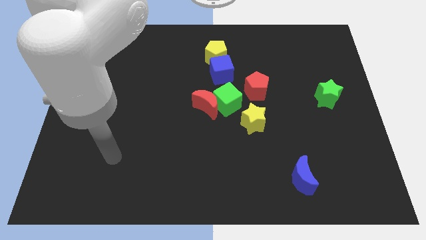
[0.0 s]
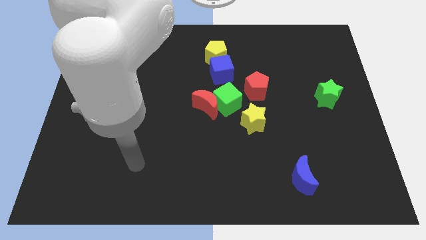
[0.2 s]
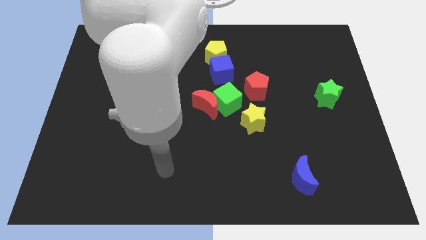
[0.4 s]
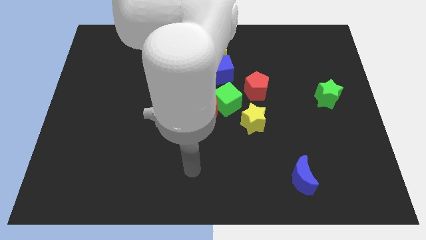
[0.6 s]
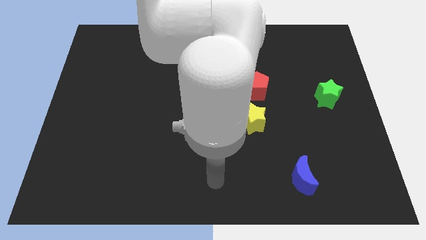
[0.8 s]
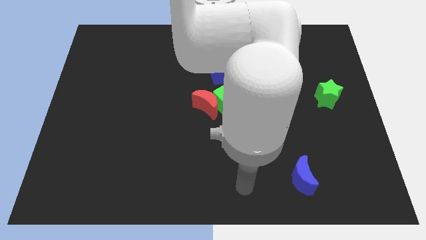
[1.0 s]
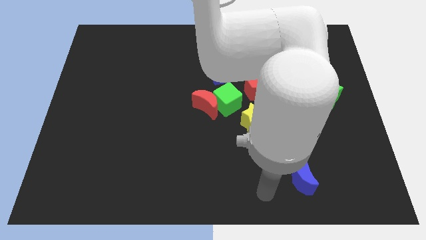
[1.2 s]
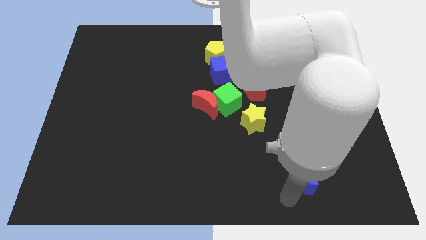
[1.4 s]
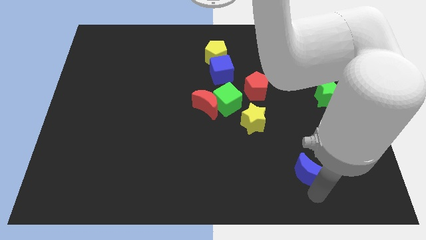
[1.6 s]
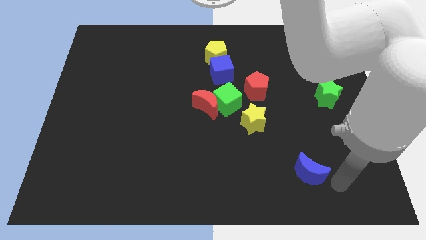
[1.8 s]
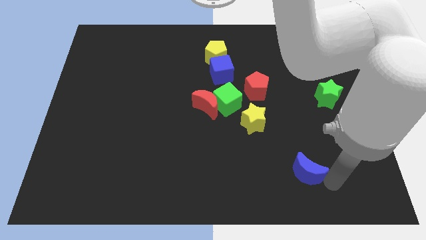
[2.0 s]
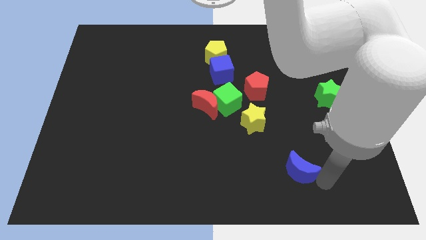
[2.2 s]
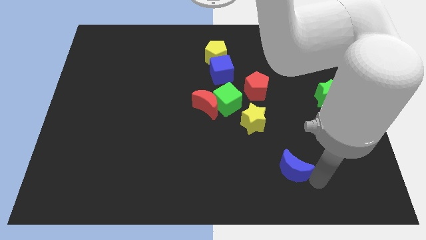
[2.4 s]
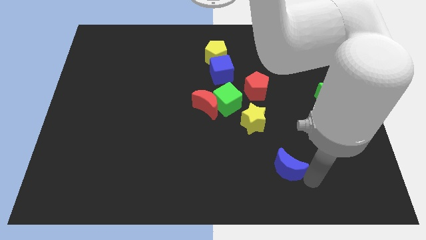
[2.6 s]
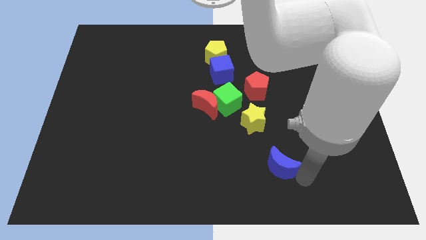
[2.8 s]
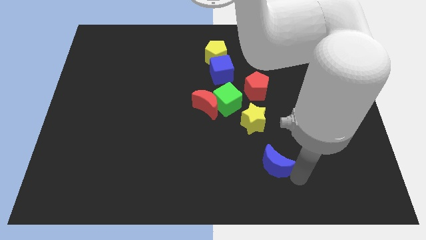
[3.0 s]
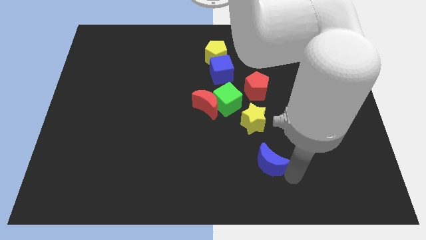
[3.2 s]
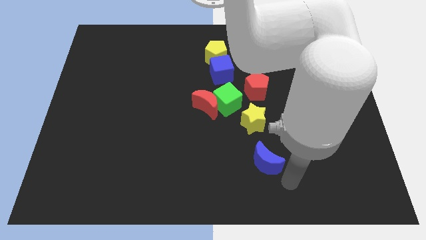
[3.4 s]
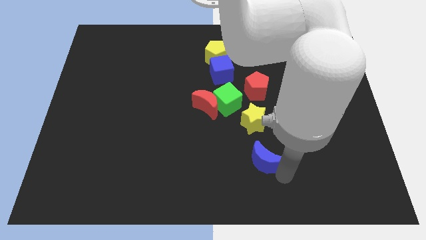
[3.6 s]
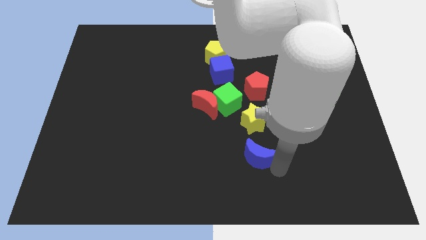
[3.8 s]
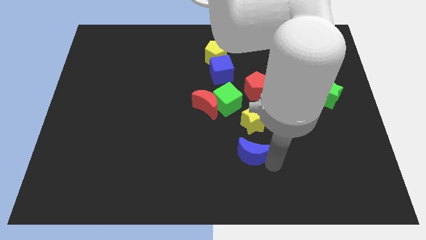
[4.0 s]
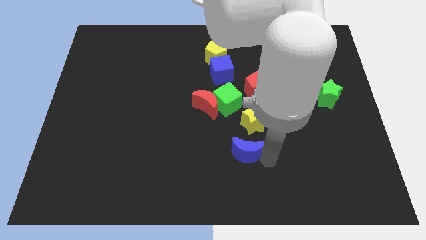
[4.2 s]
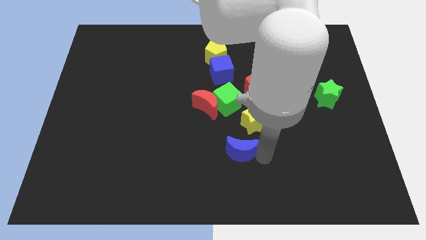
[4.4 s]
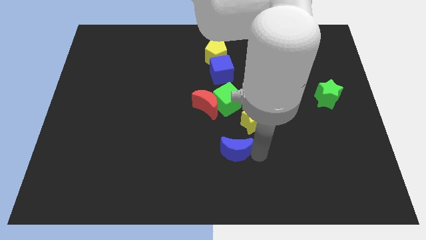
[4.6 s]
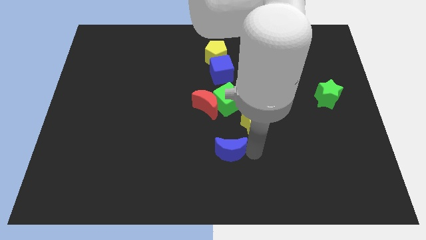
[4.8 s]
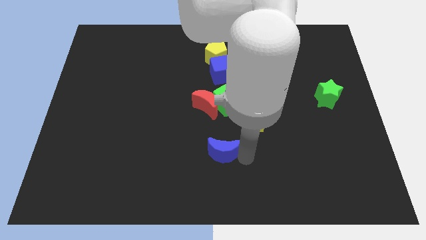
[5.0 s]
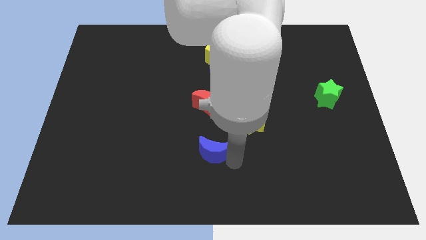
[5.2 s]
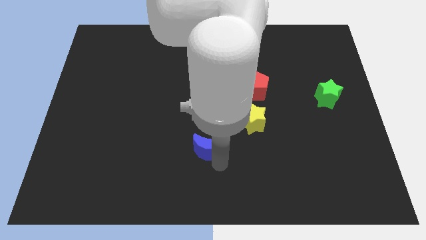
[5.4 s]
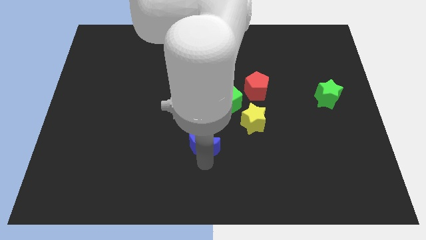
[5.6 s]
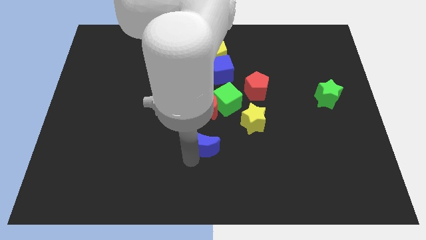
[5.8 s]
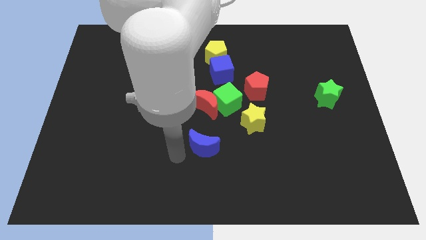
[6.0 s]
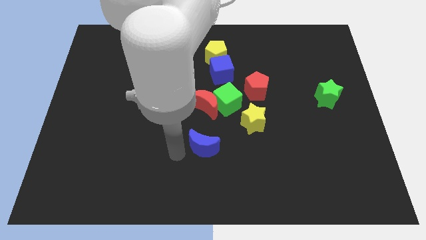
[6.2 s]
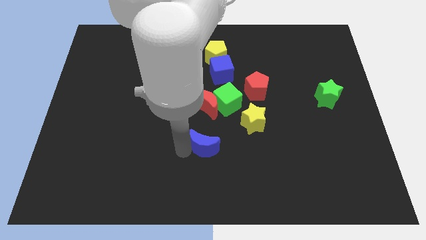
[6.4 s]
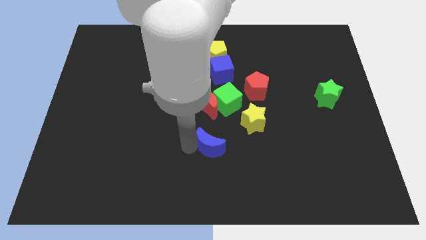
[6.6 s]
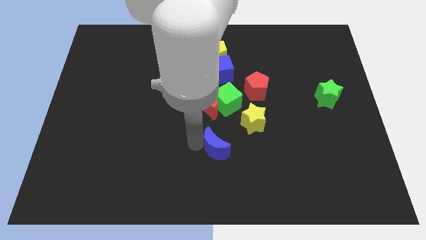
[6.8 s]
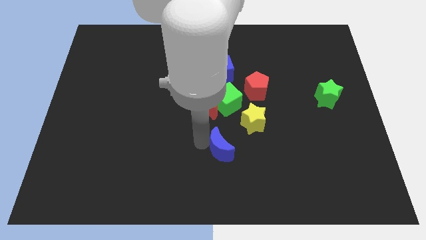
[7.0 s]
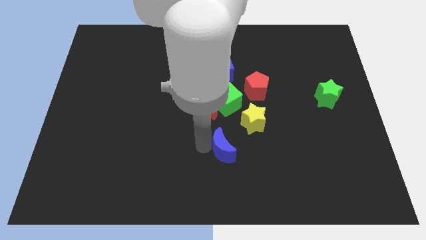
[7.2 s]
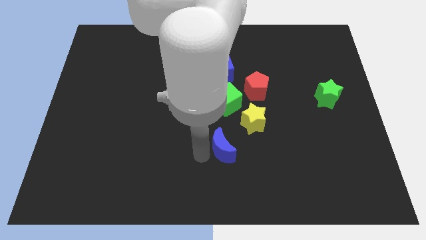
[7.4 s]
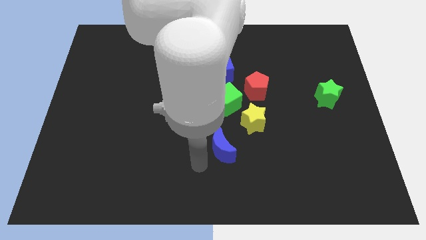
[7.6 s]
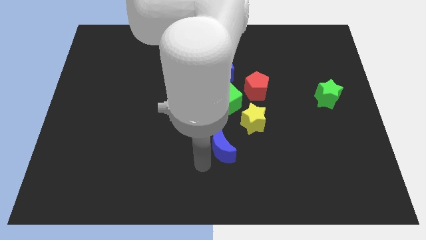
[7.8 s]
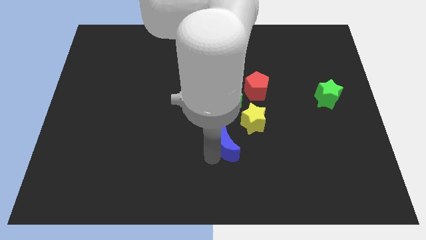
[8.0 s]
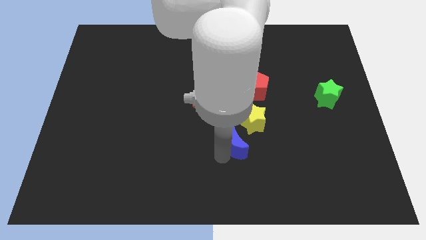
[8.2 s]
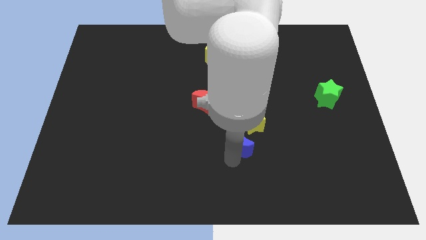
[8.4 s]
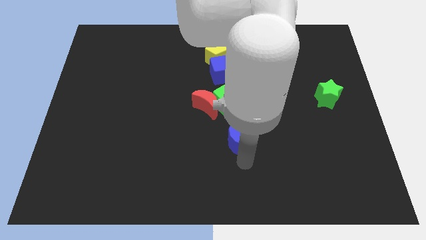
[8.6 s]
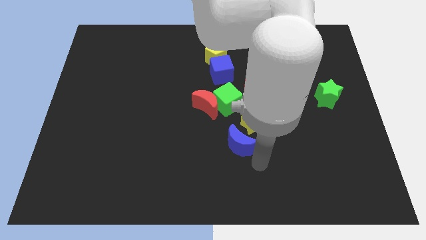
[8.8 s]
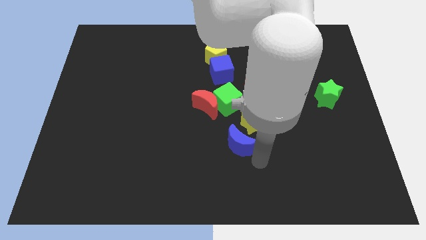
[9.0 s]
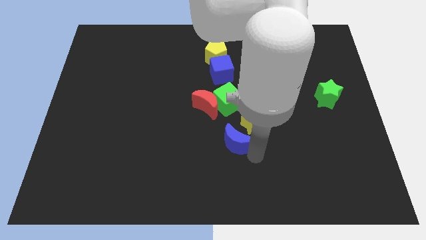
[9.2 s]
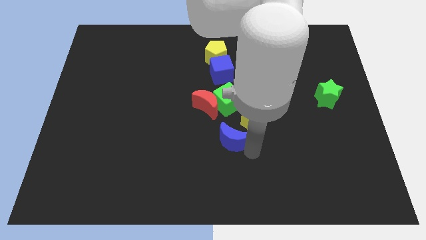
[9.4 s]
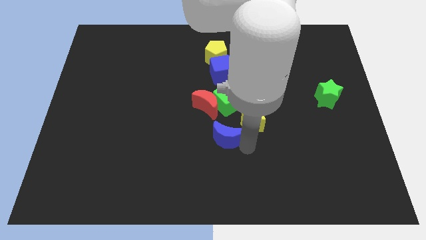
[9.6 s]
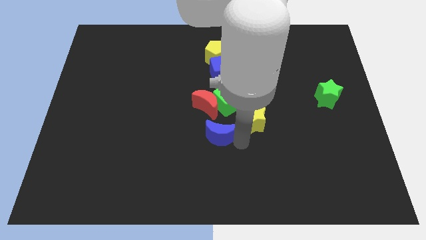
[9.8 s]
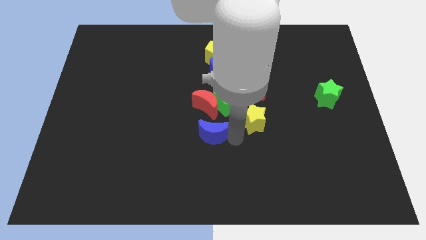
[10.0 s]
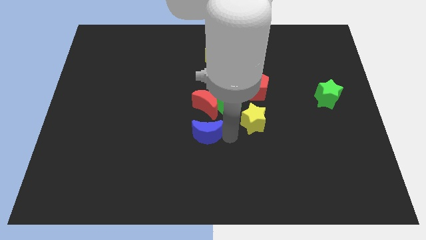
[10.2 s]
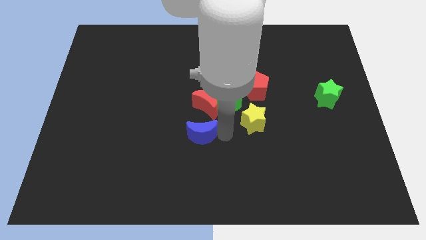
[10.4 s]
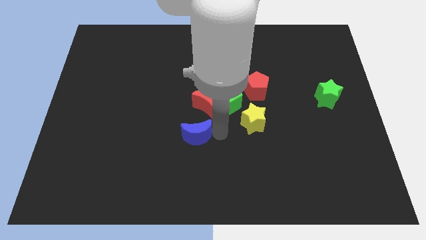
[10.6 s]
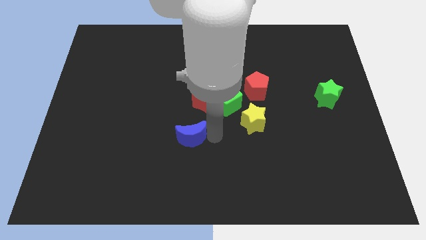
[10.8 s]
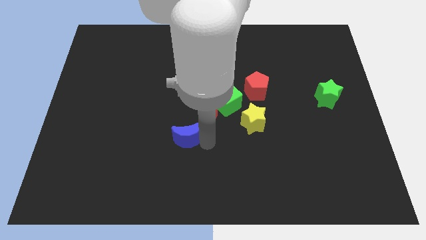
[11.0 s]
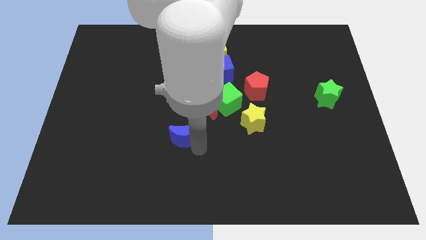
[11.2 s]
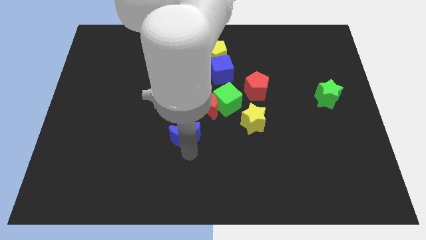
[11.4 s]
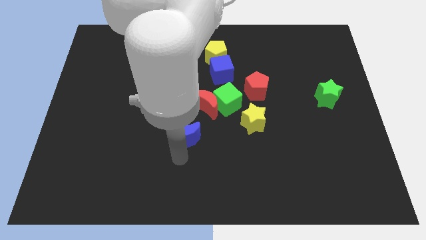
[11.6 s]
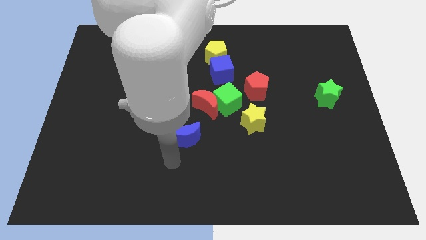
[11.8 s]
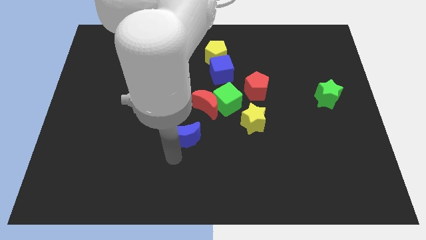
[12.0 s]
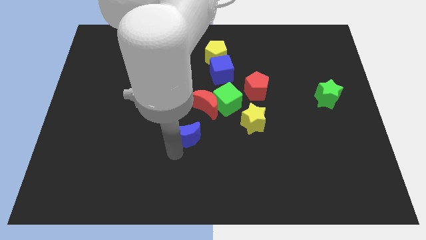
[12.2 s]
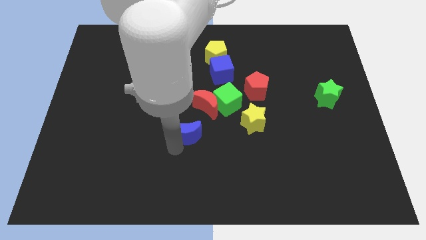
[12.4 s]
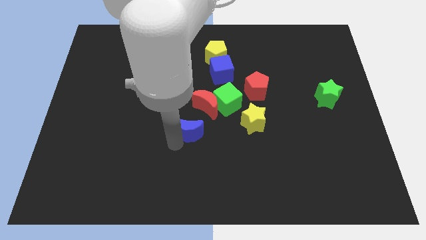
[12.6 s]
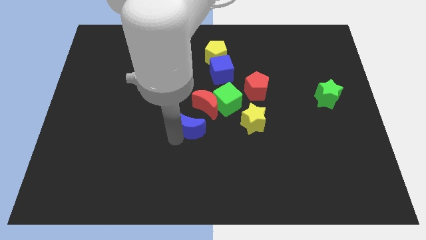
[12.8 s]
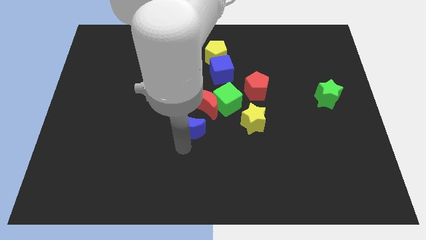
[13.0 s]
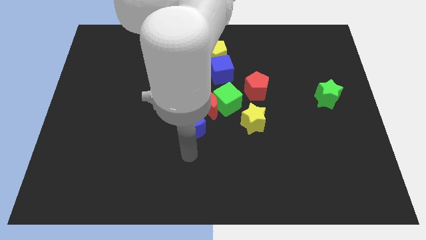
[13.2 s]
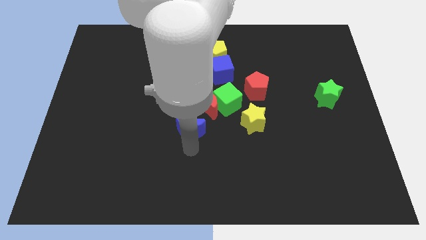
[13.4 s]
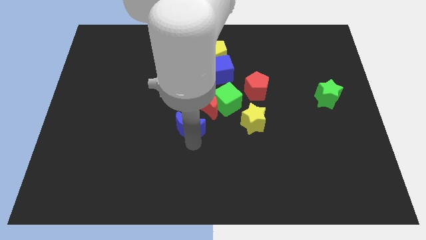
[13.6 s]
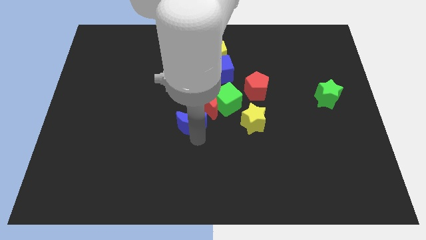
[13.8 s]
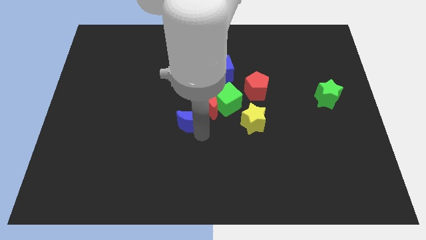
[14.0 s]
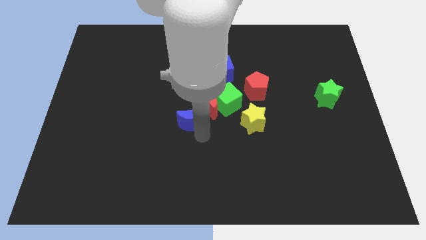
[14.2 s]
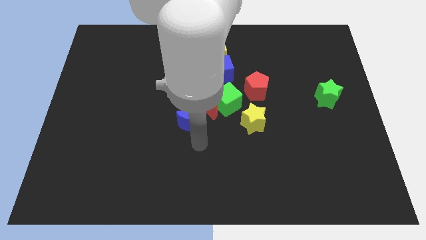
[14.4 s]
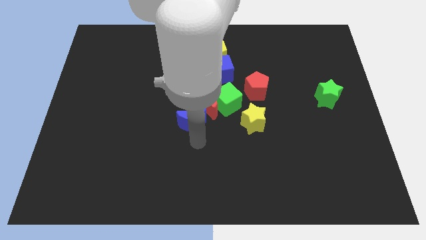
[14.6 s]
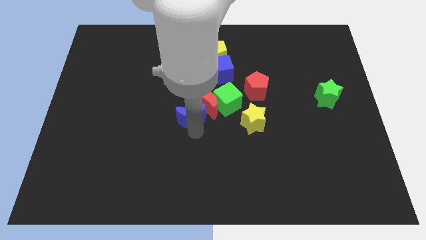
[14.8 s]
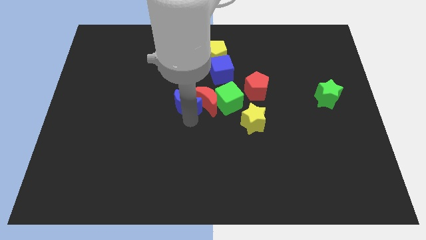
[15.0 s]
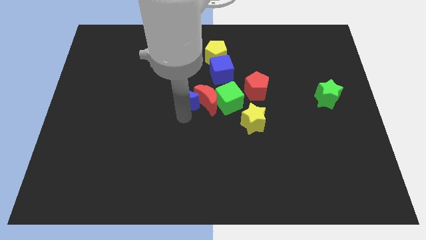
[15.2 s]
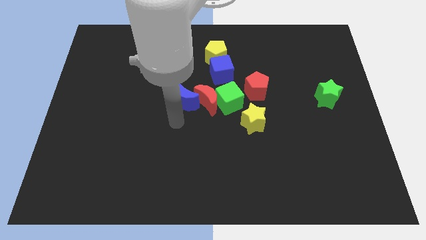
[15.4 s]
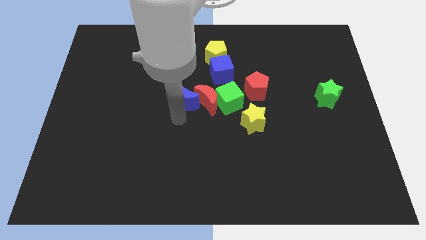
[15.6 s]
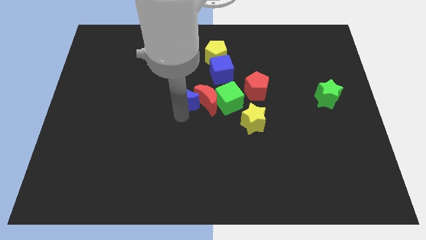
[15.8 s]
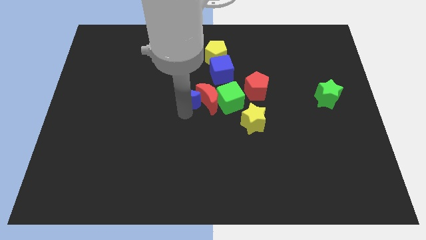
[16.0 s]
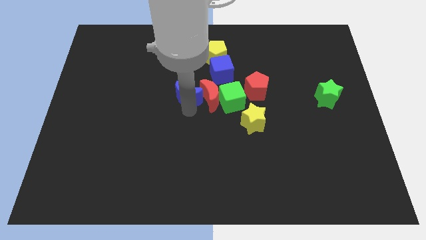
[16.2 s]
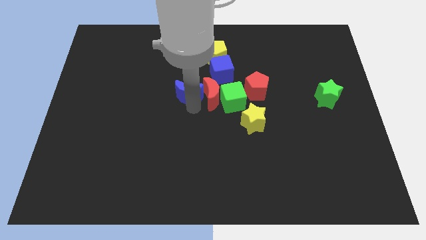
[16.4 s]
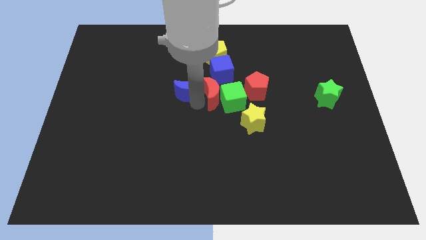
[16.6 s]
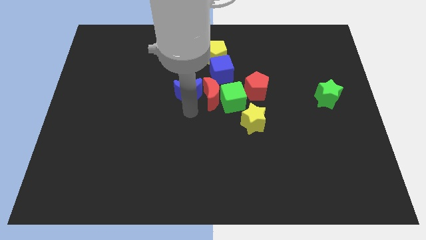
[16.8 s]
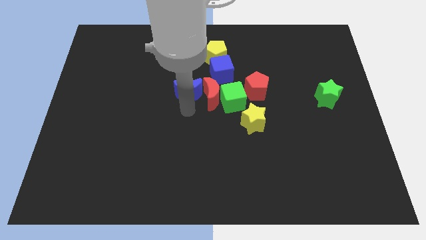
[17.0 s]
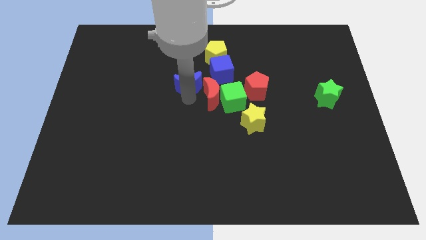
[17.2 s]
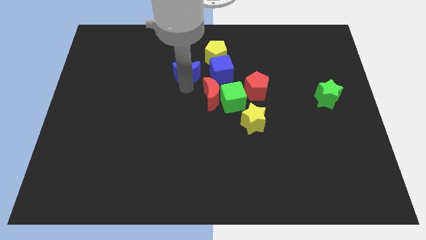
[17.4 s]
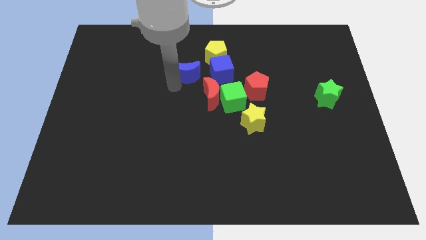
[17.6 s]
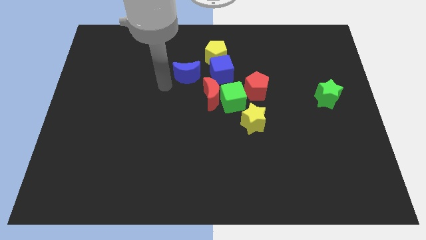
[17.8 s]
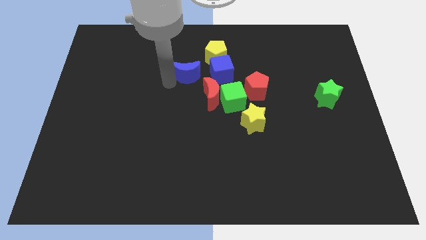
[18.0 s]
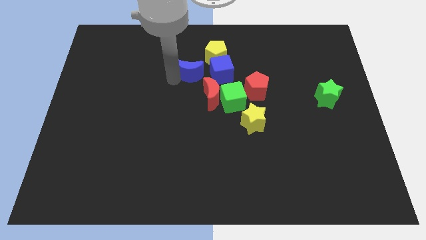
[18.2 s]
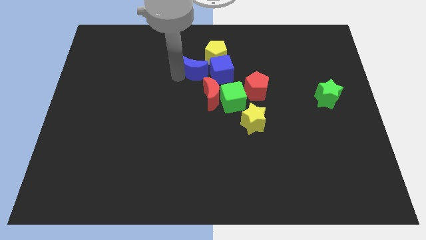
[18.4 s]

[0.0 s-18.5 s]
move the blue moon to the top of the red moon
